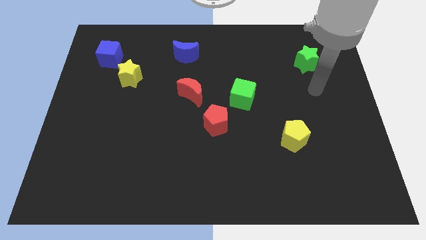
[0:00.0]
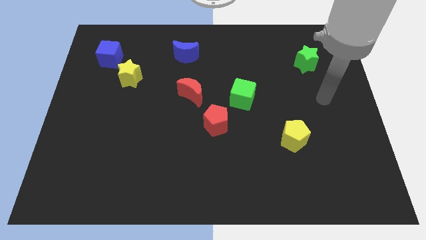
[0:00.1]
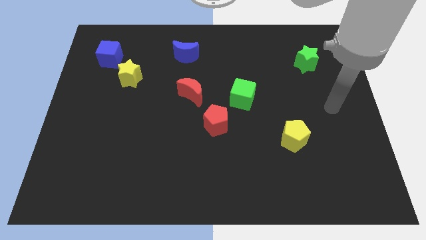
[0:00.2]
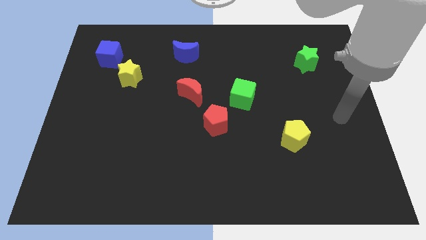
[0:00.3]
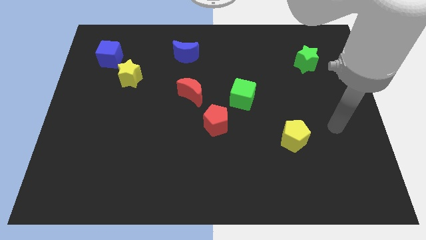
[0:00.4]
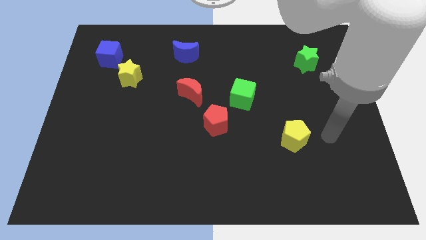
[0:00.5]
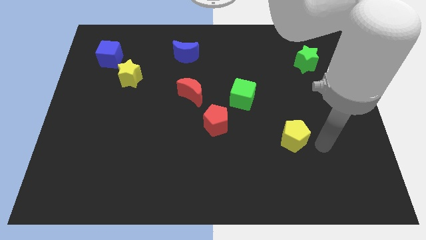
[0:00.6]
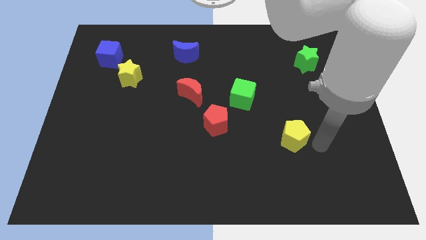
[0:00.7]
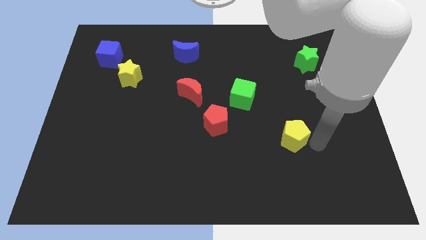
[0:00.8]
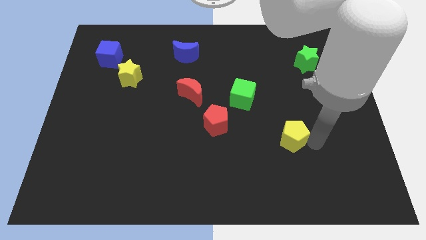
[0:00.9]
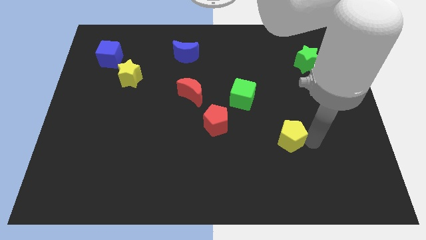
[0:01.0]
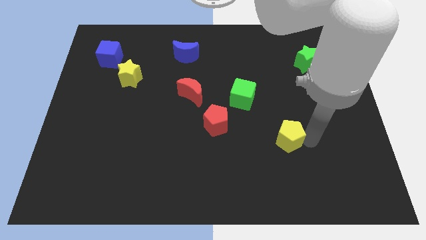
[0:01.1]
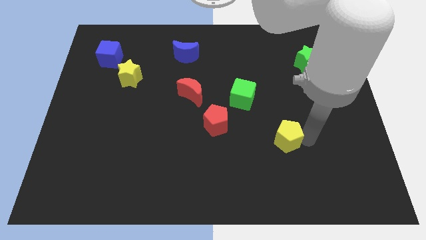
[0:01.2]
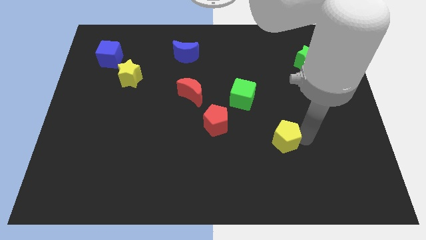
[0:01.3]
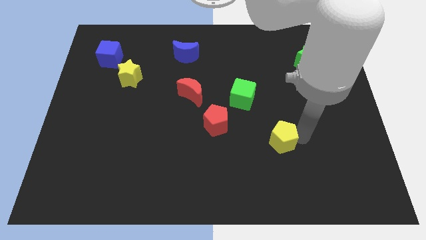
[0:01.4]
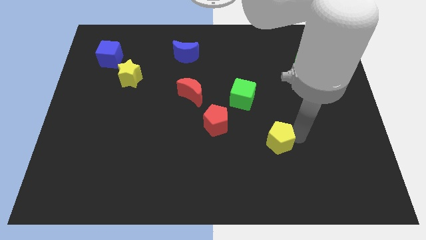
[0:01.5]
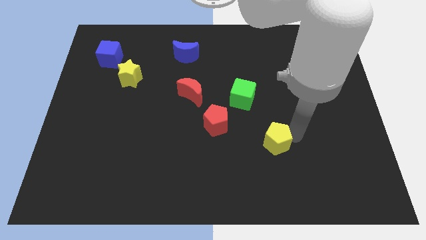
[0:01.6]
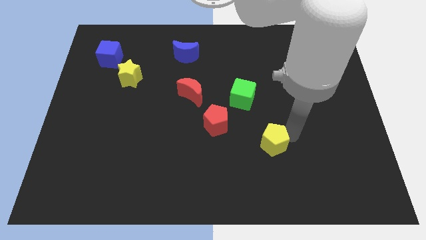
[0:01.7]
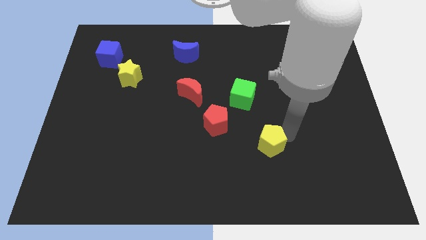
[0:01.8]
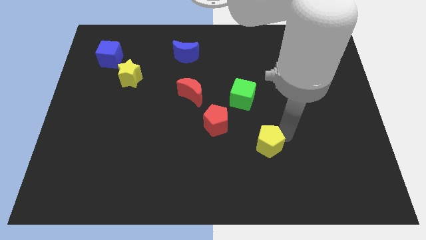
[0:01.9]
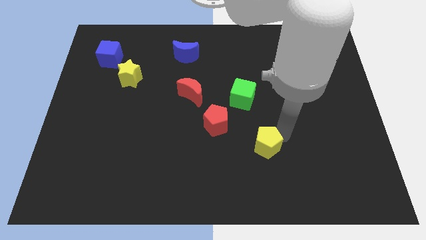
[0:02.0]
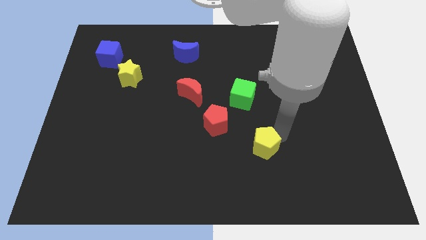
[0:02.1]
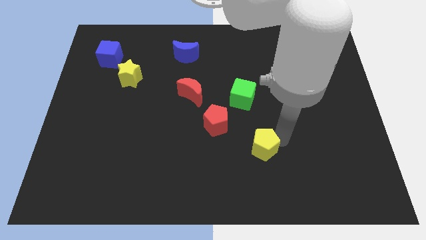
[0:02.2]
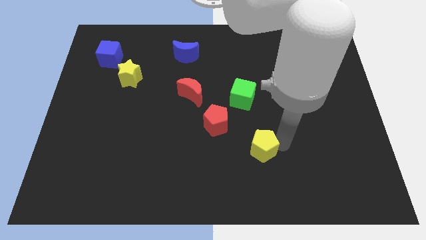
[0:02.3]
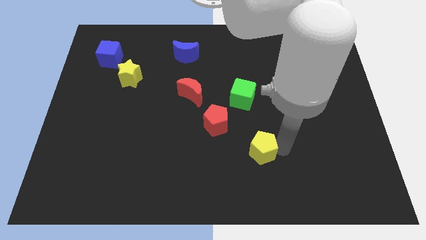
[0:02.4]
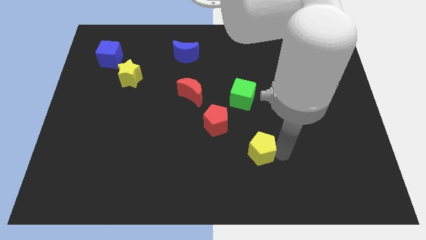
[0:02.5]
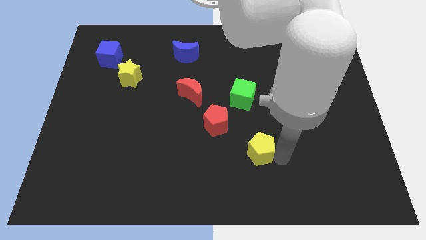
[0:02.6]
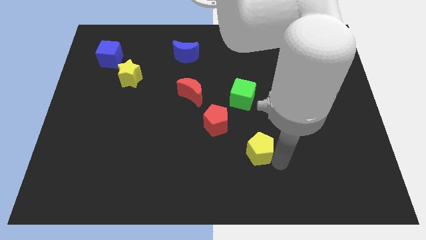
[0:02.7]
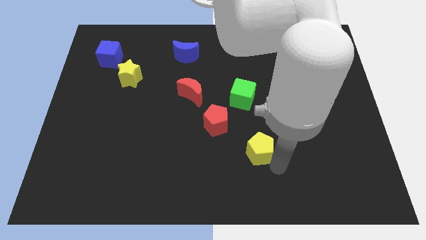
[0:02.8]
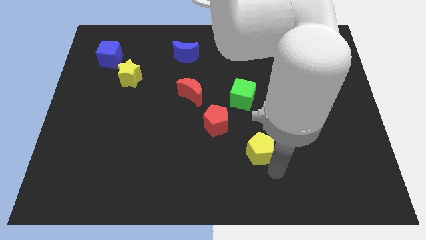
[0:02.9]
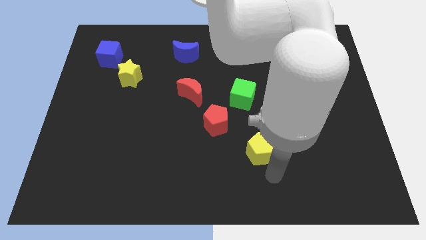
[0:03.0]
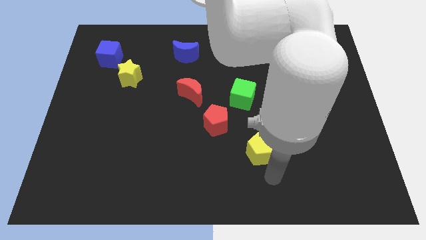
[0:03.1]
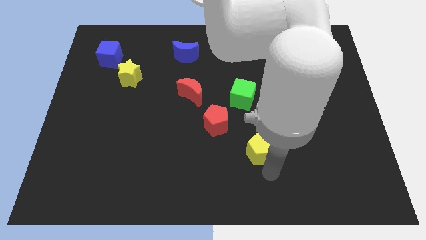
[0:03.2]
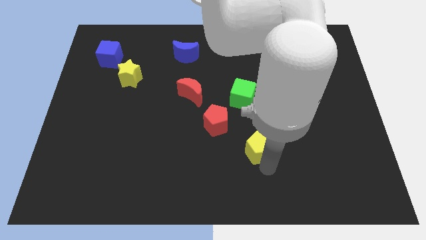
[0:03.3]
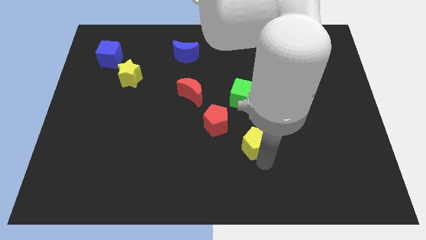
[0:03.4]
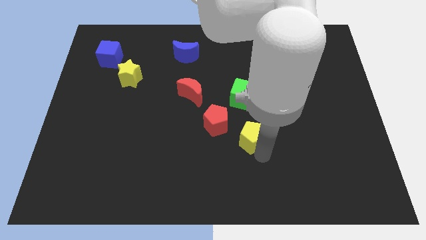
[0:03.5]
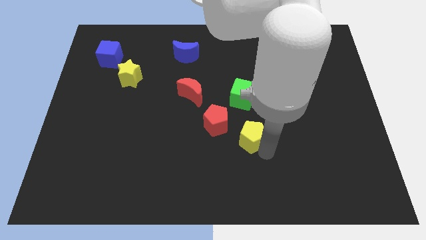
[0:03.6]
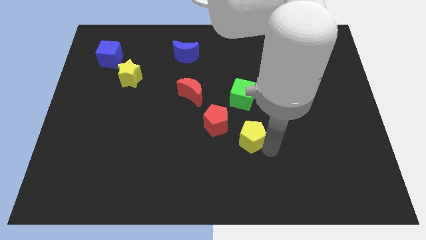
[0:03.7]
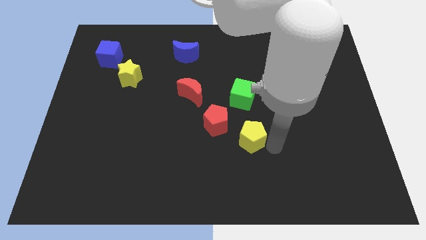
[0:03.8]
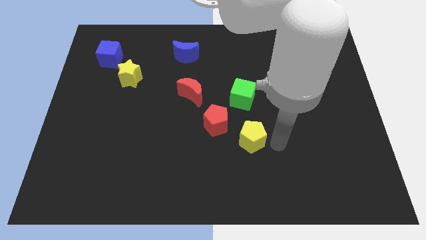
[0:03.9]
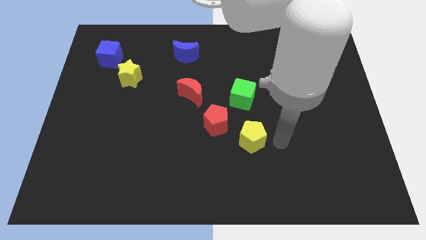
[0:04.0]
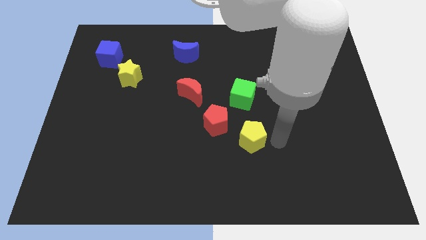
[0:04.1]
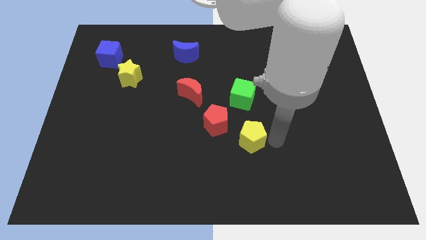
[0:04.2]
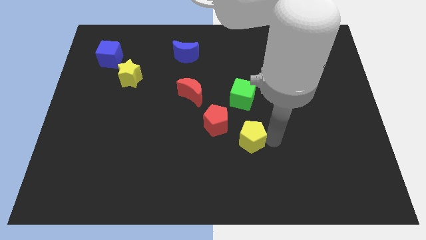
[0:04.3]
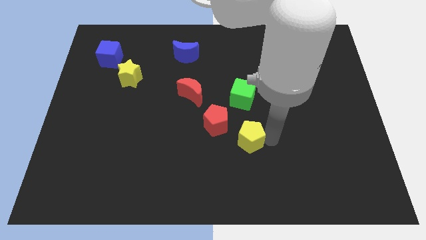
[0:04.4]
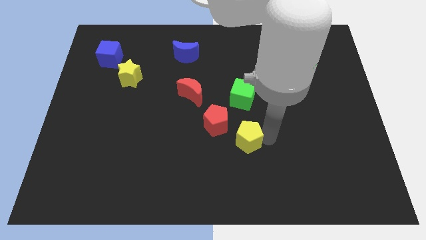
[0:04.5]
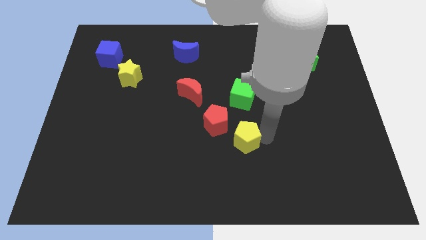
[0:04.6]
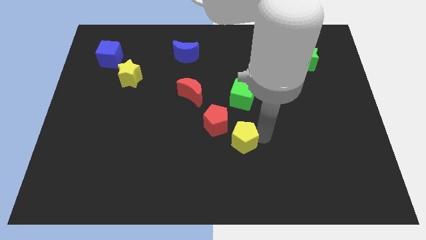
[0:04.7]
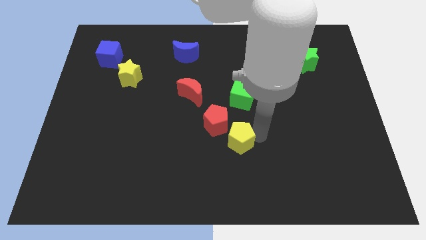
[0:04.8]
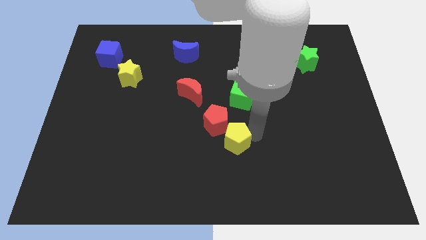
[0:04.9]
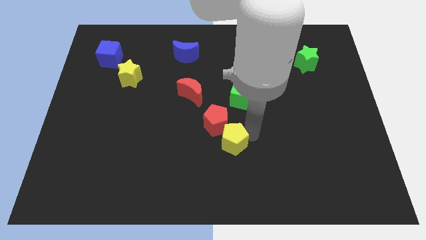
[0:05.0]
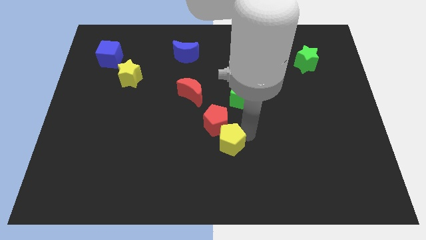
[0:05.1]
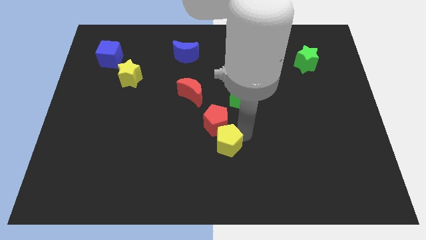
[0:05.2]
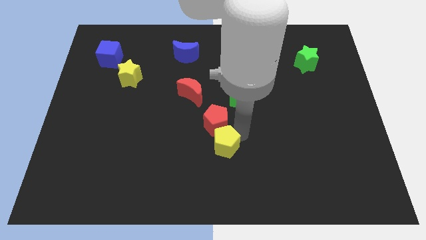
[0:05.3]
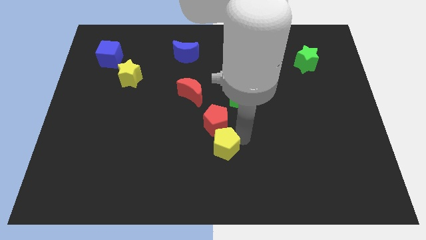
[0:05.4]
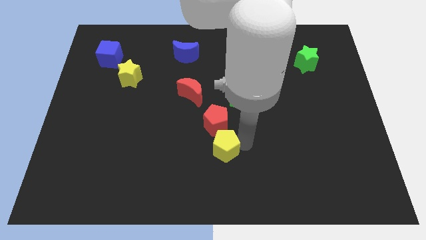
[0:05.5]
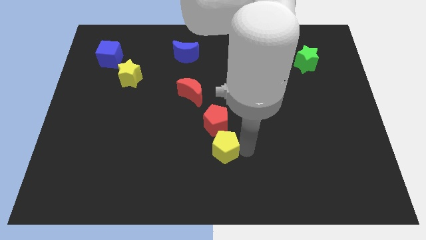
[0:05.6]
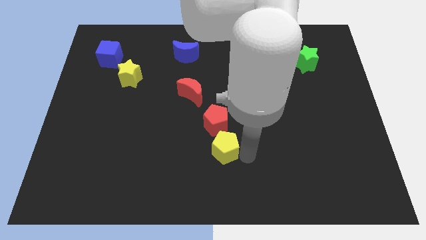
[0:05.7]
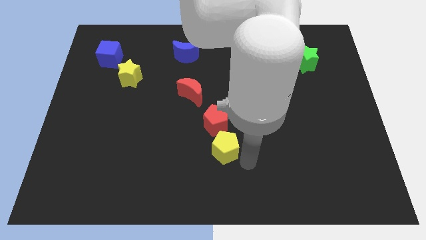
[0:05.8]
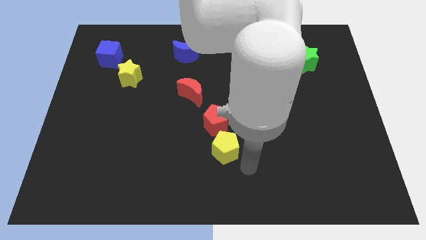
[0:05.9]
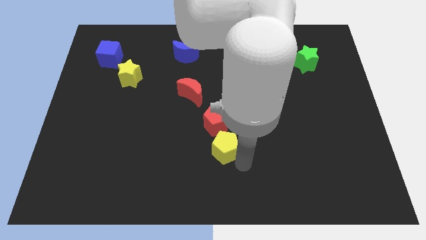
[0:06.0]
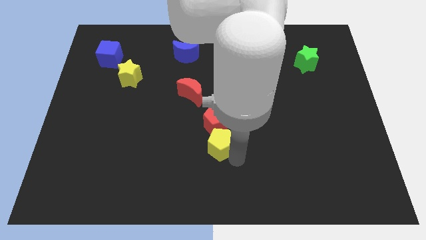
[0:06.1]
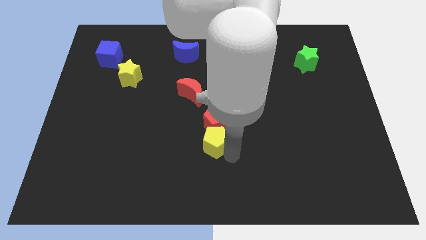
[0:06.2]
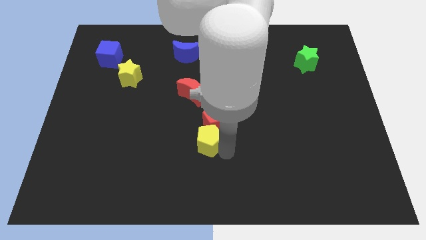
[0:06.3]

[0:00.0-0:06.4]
put the yellow pentagon to the bottom side of the red moon
